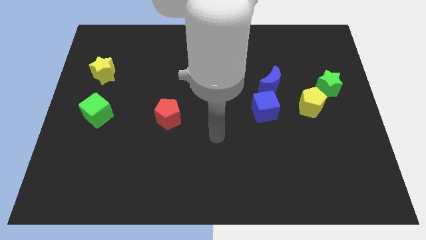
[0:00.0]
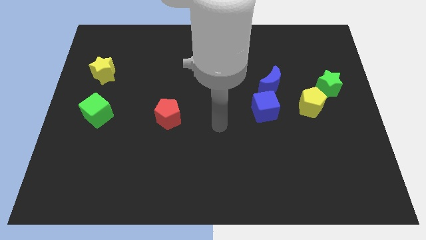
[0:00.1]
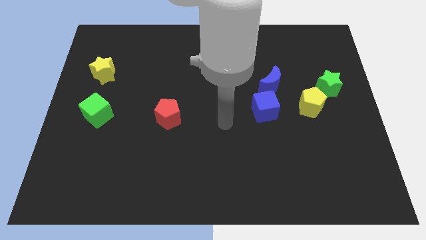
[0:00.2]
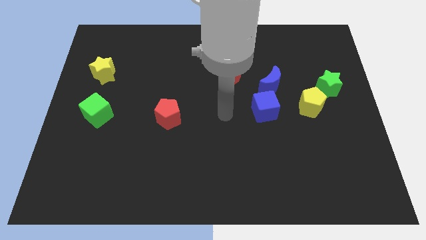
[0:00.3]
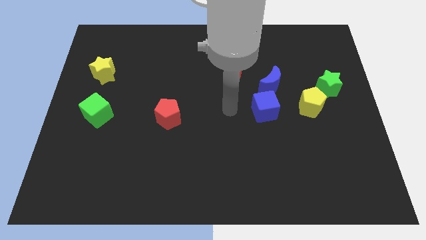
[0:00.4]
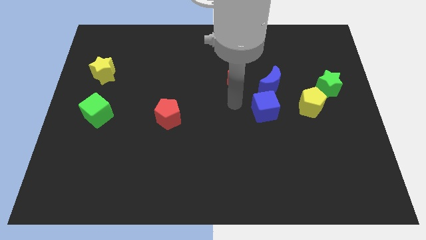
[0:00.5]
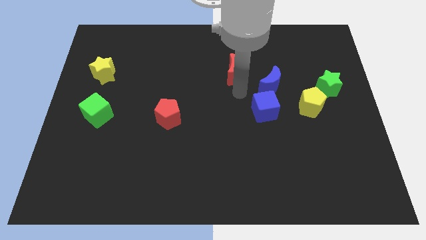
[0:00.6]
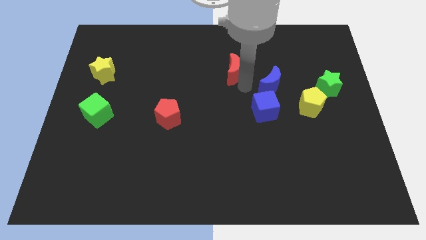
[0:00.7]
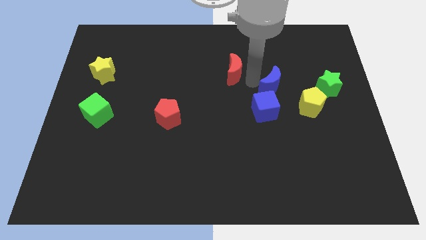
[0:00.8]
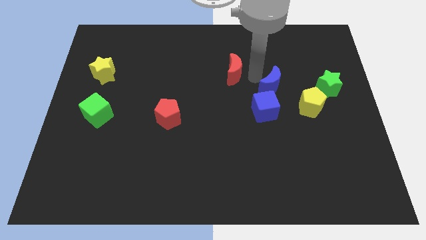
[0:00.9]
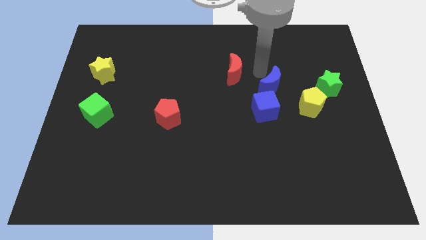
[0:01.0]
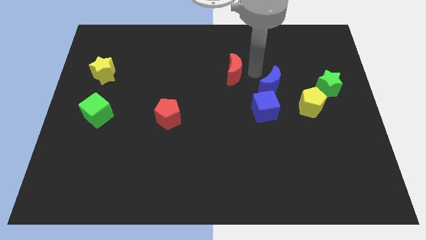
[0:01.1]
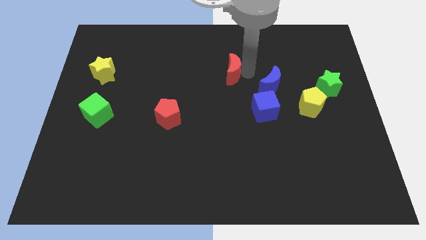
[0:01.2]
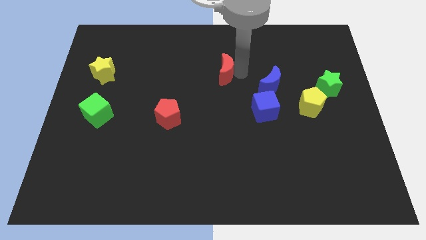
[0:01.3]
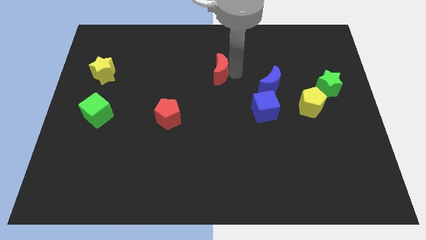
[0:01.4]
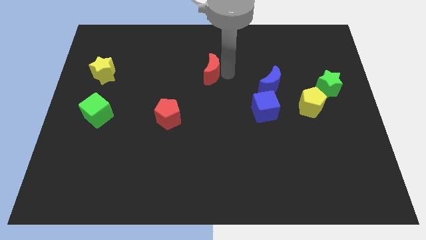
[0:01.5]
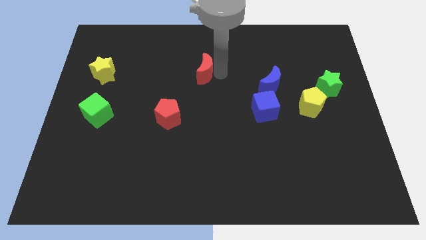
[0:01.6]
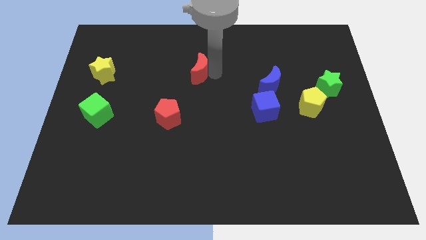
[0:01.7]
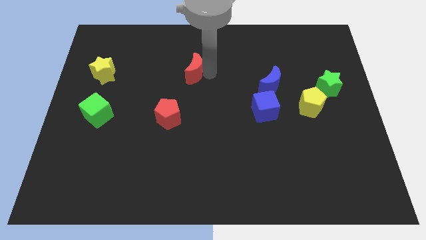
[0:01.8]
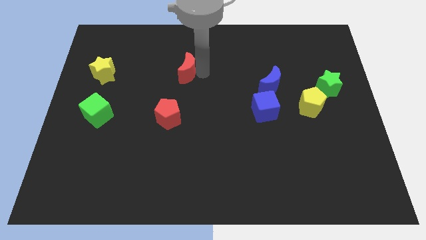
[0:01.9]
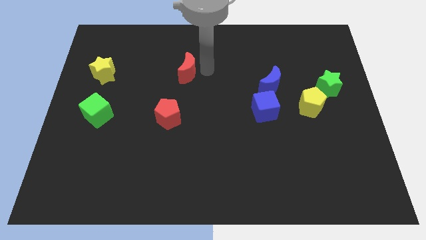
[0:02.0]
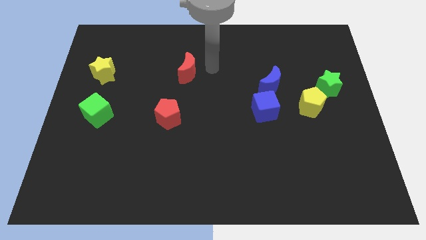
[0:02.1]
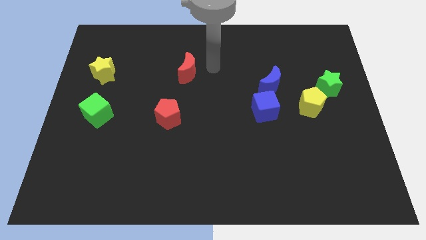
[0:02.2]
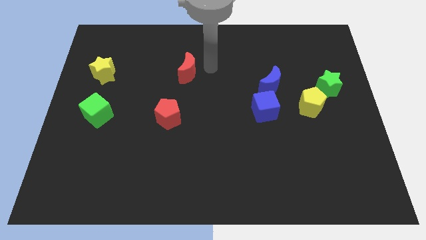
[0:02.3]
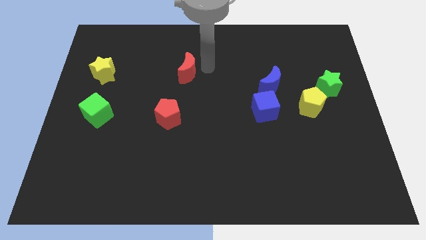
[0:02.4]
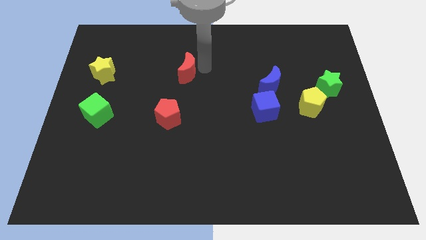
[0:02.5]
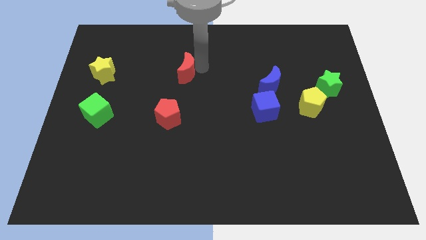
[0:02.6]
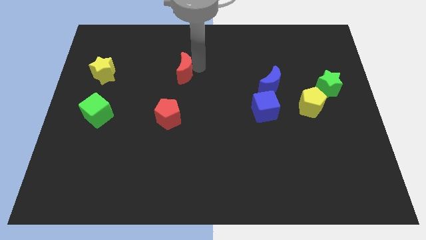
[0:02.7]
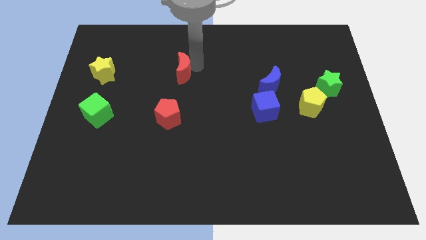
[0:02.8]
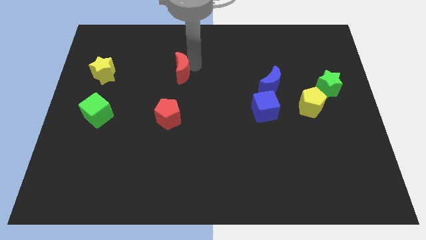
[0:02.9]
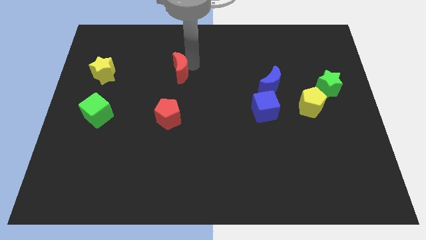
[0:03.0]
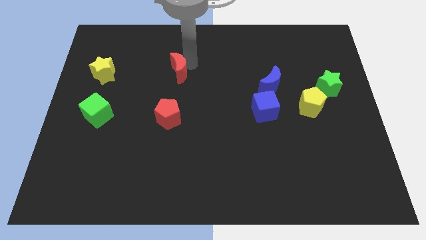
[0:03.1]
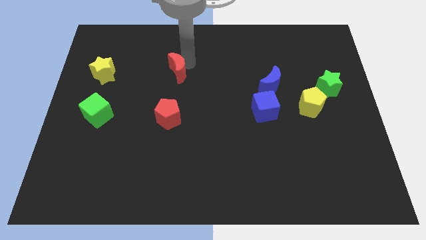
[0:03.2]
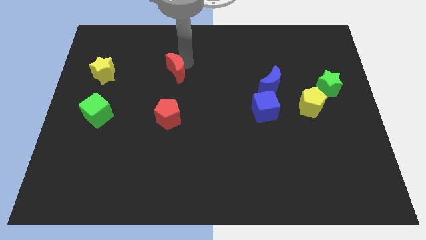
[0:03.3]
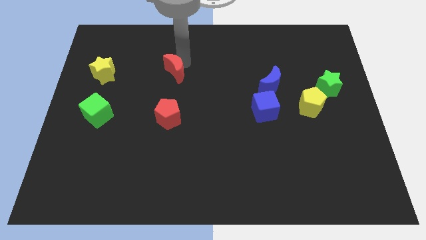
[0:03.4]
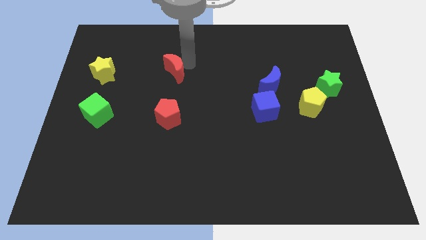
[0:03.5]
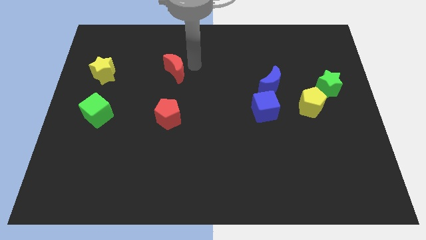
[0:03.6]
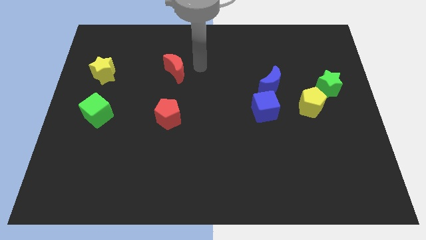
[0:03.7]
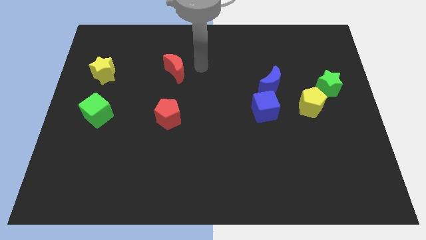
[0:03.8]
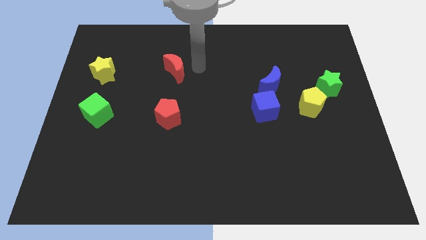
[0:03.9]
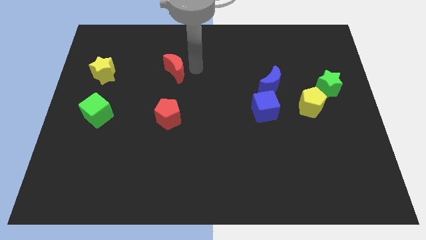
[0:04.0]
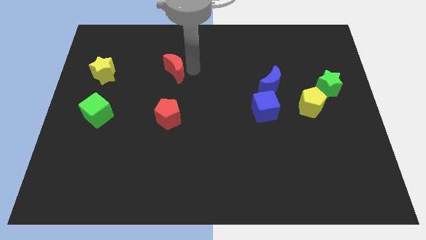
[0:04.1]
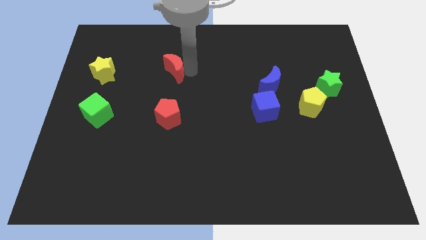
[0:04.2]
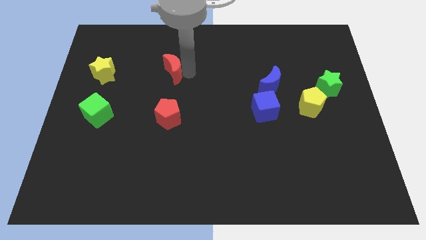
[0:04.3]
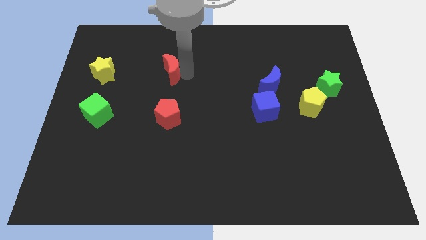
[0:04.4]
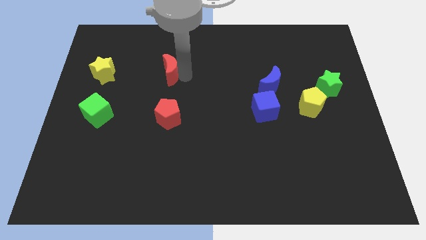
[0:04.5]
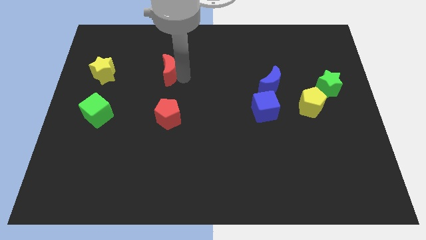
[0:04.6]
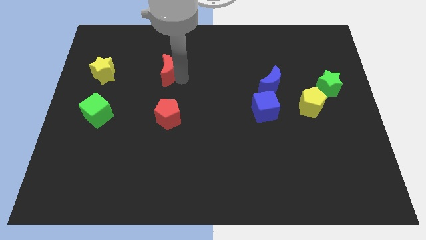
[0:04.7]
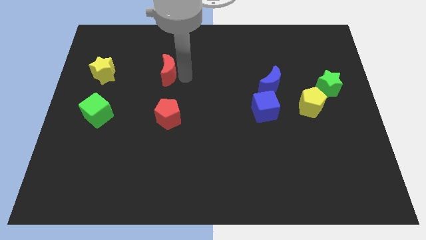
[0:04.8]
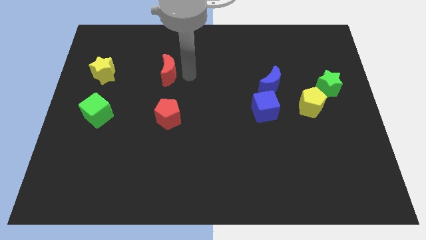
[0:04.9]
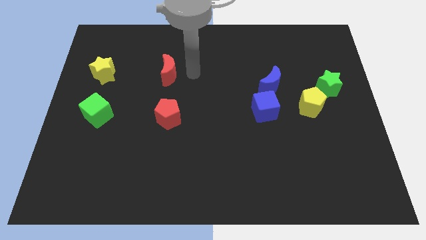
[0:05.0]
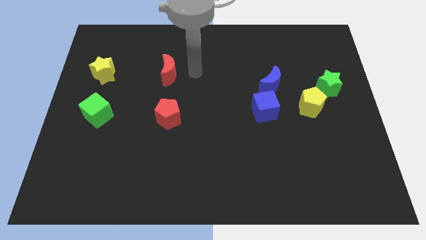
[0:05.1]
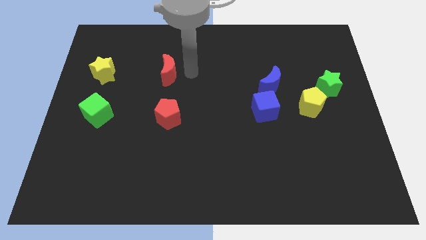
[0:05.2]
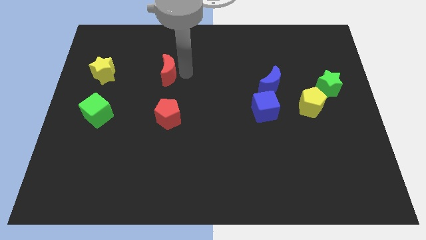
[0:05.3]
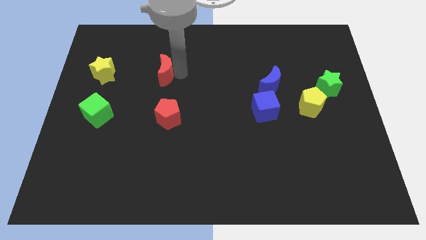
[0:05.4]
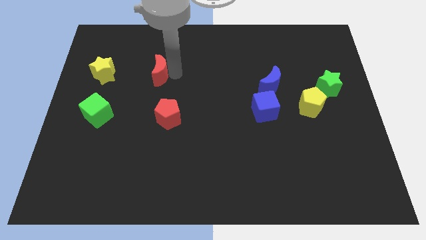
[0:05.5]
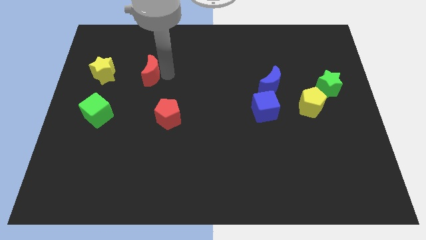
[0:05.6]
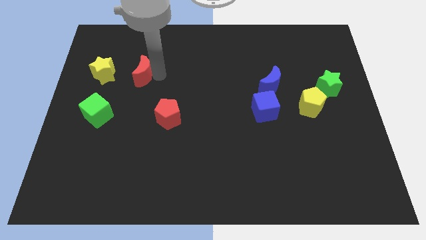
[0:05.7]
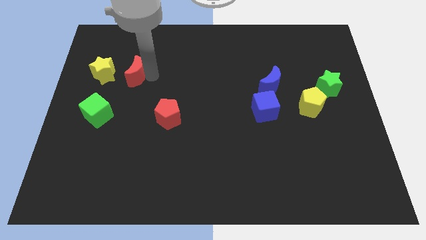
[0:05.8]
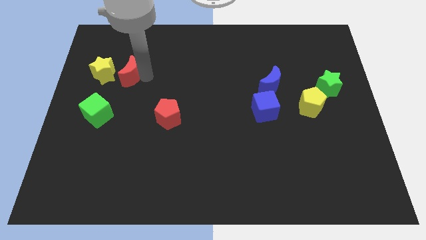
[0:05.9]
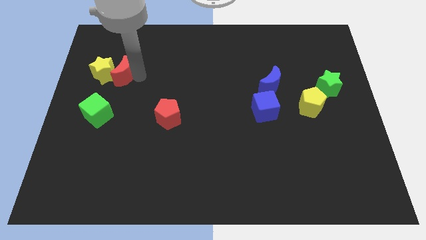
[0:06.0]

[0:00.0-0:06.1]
slide the red moon next to the yellow star

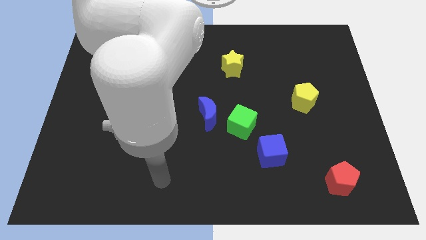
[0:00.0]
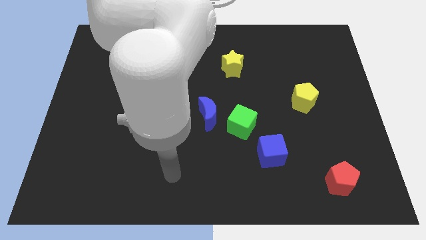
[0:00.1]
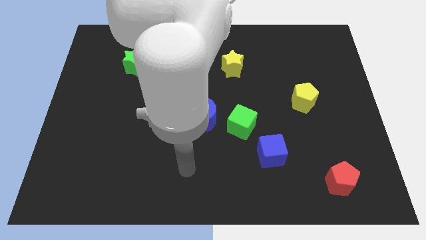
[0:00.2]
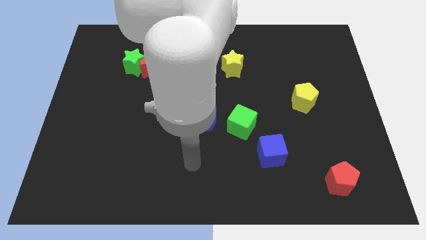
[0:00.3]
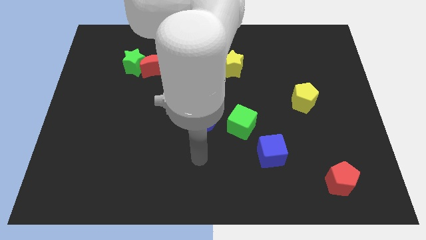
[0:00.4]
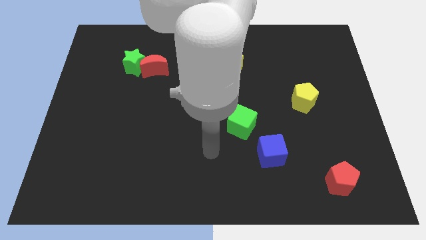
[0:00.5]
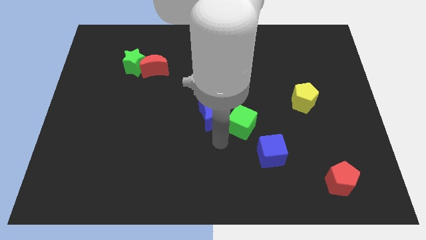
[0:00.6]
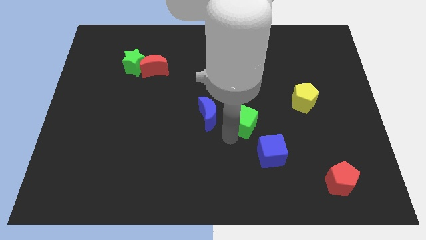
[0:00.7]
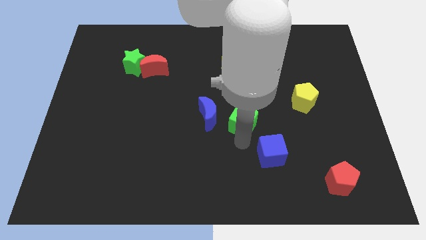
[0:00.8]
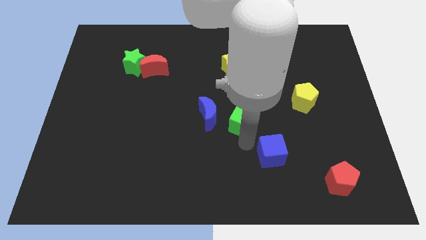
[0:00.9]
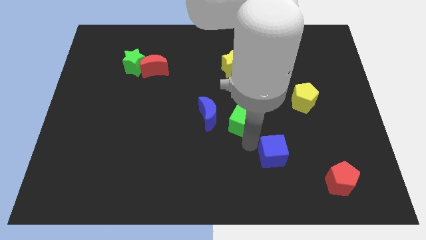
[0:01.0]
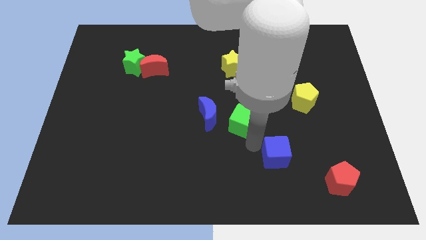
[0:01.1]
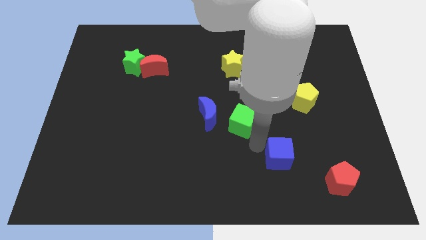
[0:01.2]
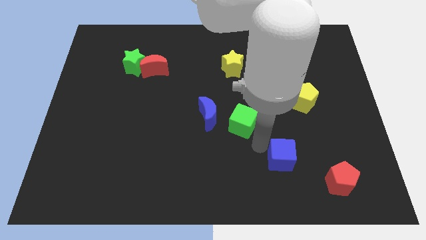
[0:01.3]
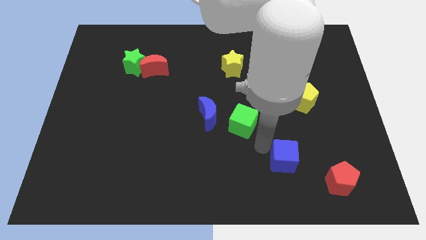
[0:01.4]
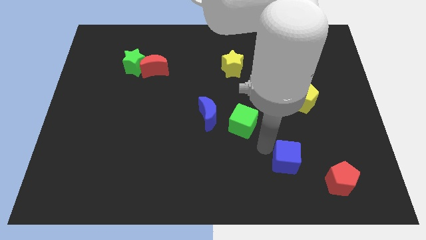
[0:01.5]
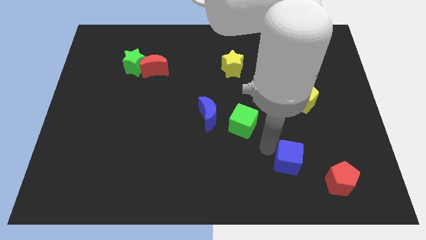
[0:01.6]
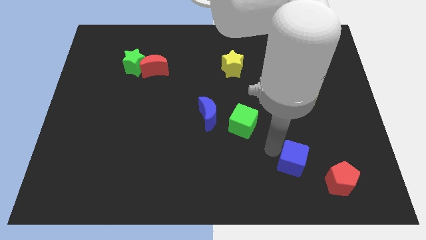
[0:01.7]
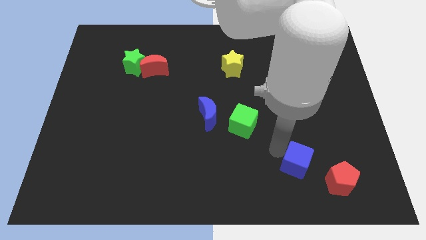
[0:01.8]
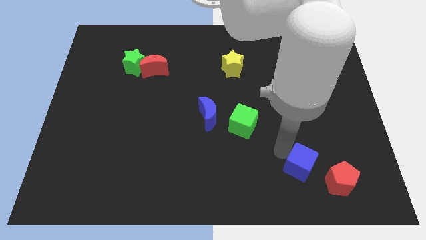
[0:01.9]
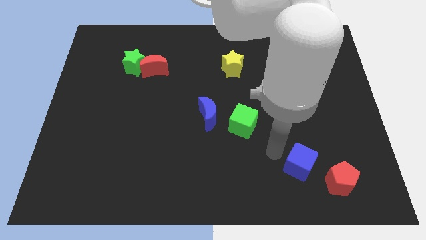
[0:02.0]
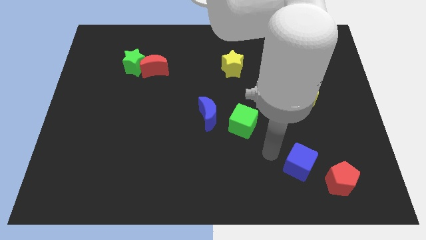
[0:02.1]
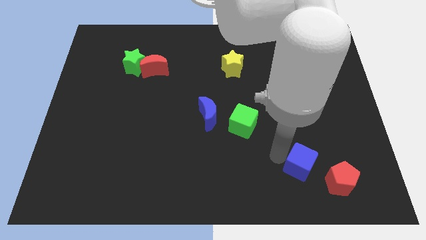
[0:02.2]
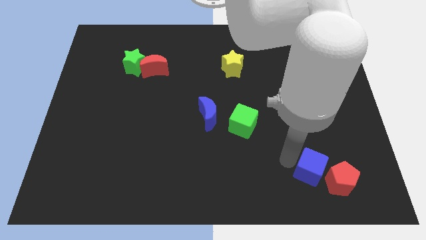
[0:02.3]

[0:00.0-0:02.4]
move the blue cube next to the red pentagon
